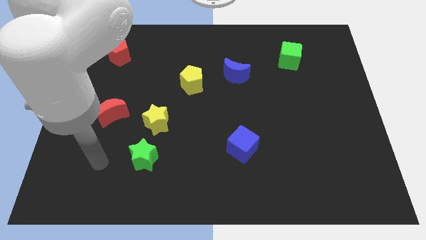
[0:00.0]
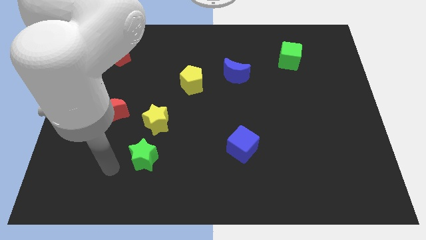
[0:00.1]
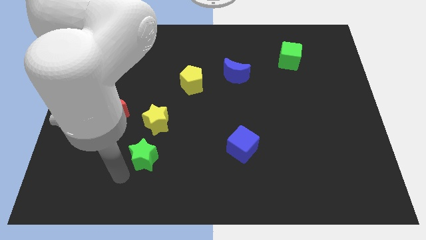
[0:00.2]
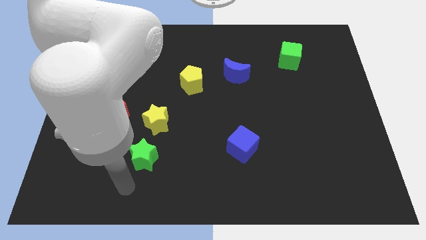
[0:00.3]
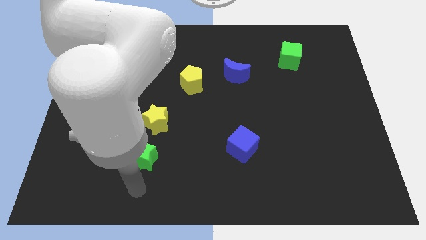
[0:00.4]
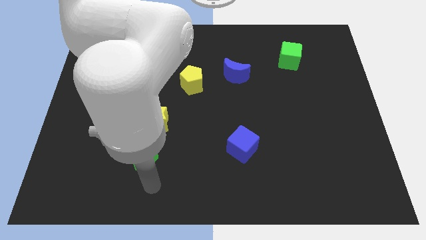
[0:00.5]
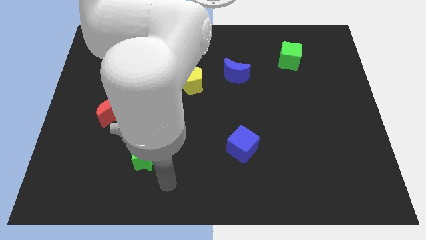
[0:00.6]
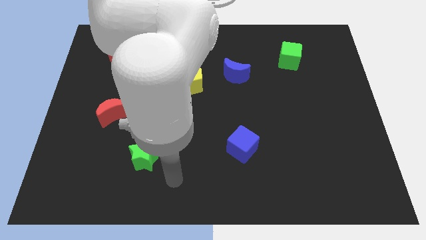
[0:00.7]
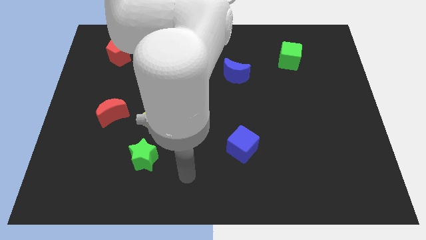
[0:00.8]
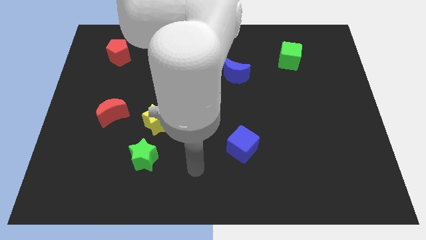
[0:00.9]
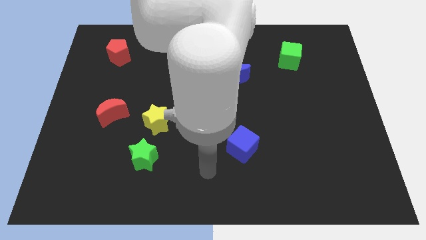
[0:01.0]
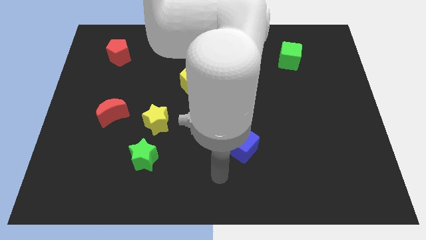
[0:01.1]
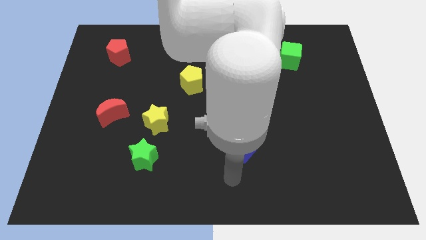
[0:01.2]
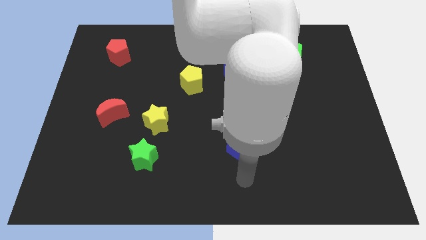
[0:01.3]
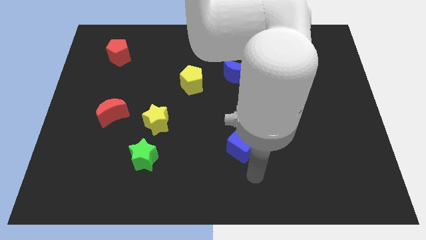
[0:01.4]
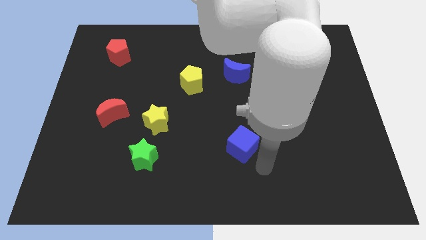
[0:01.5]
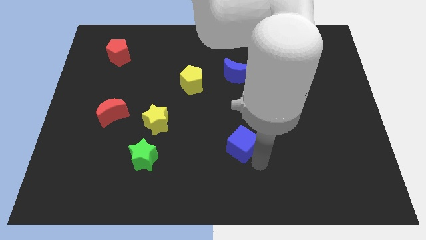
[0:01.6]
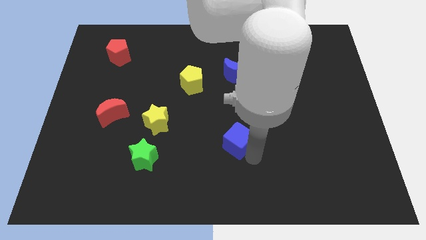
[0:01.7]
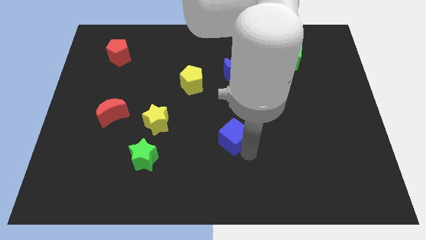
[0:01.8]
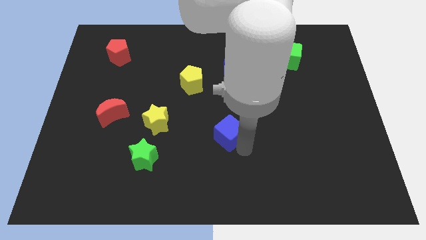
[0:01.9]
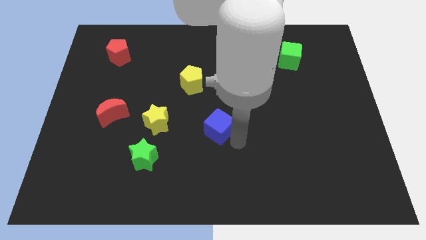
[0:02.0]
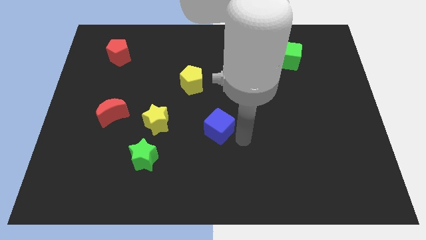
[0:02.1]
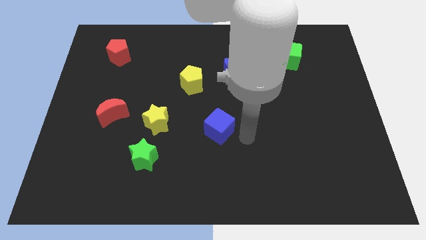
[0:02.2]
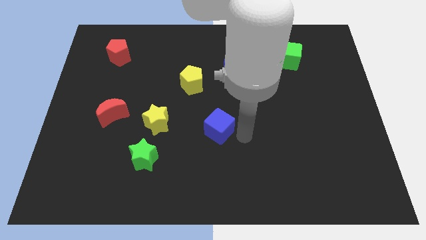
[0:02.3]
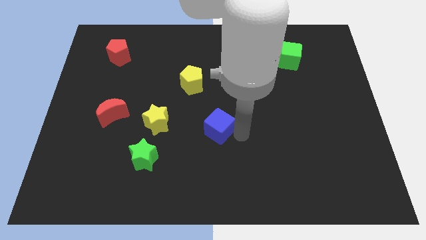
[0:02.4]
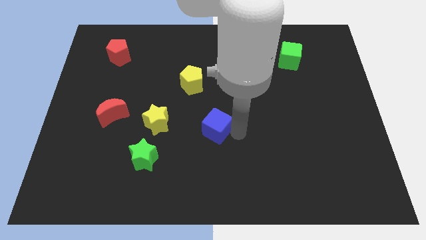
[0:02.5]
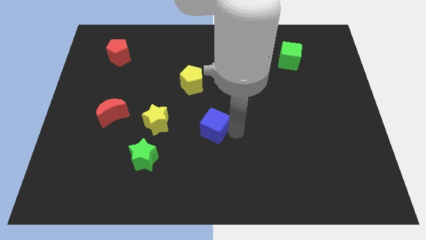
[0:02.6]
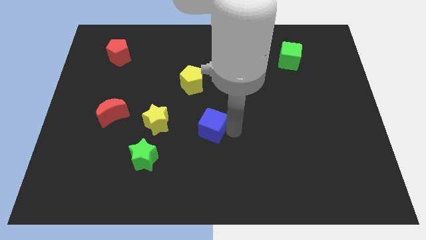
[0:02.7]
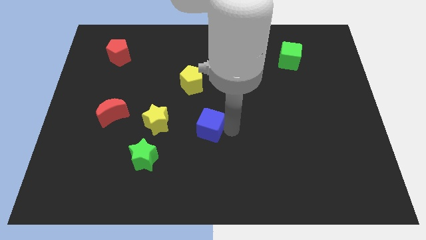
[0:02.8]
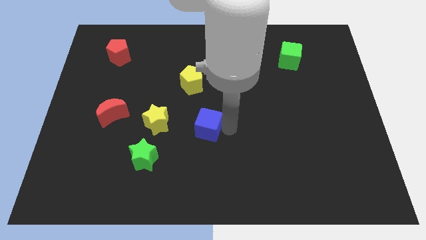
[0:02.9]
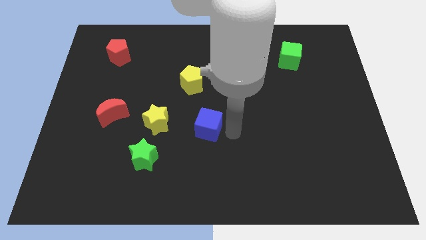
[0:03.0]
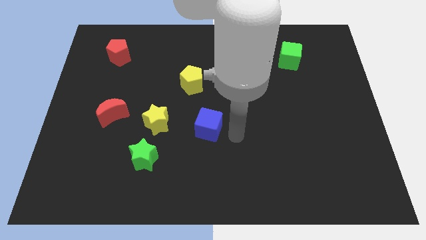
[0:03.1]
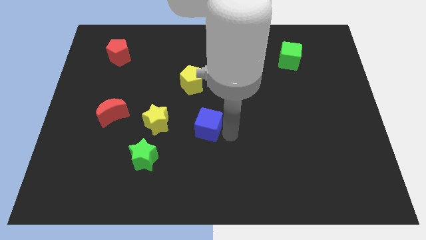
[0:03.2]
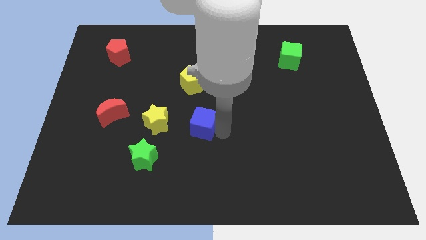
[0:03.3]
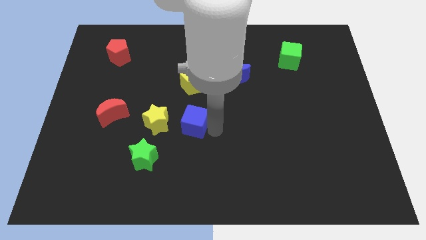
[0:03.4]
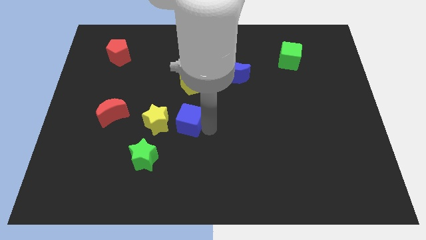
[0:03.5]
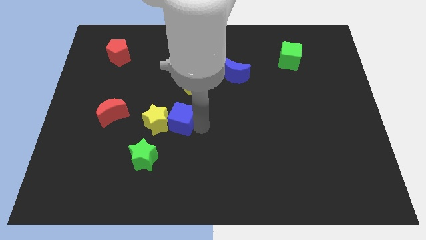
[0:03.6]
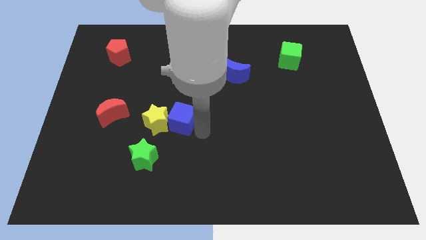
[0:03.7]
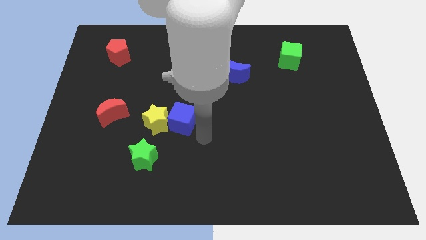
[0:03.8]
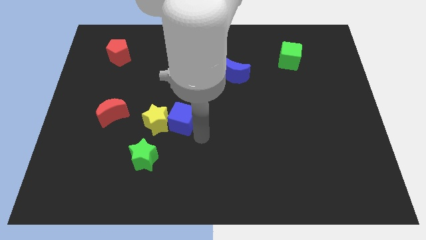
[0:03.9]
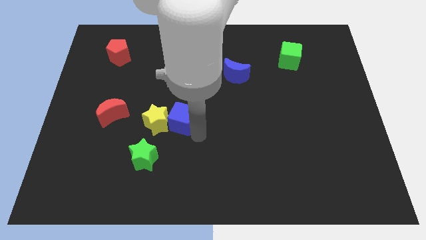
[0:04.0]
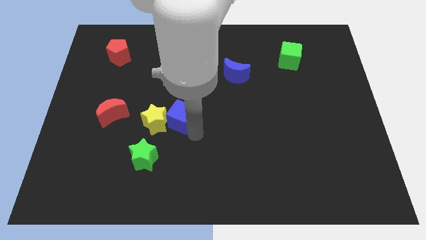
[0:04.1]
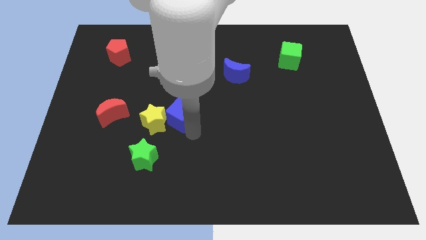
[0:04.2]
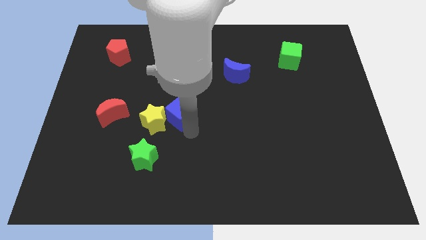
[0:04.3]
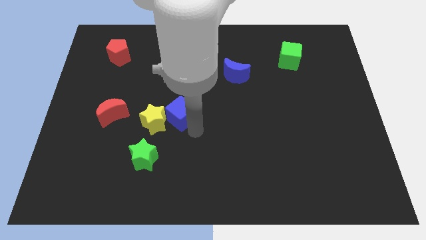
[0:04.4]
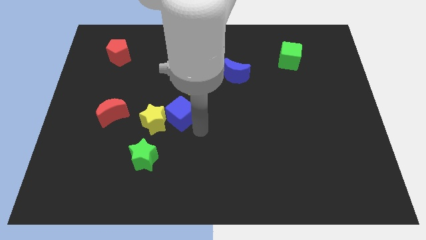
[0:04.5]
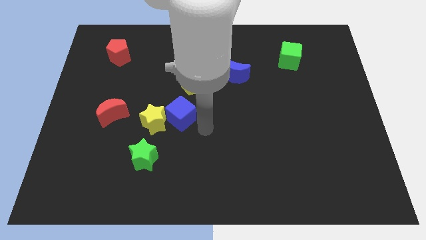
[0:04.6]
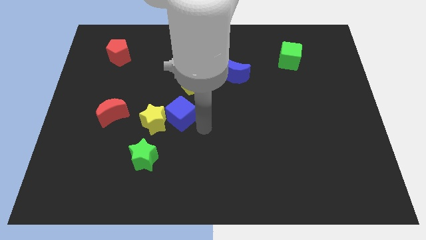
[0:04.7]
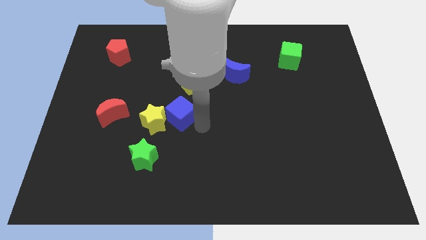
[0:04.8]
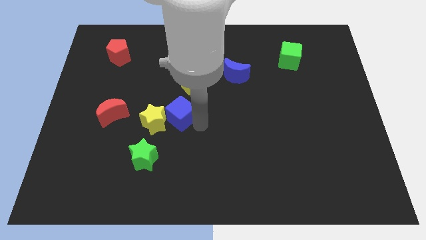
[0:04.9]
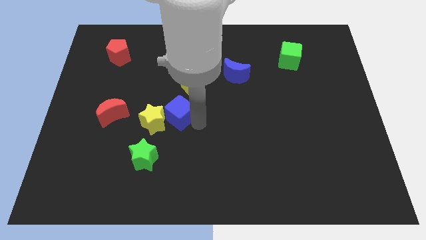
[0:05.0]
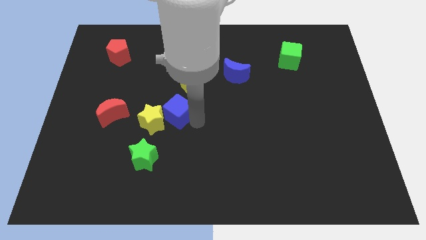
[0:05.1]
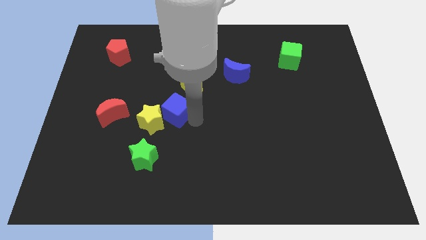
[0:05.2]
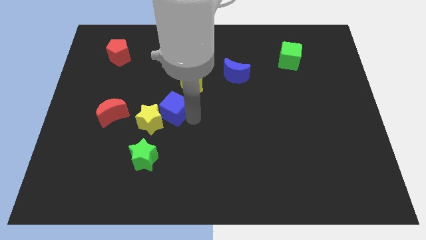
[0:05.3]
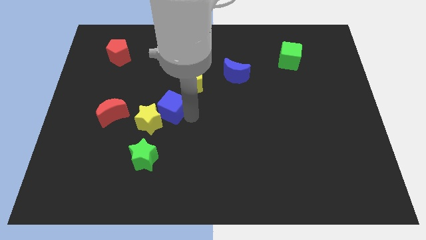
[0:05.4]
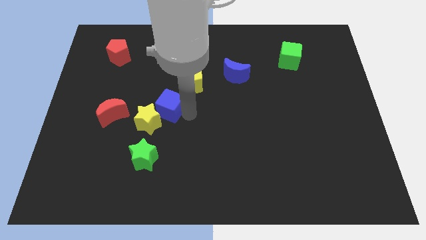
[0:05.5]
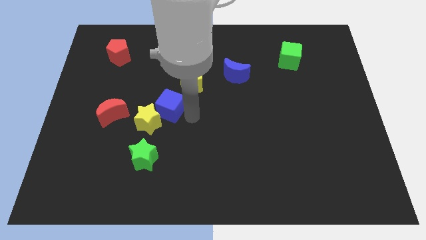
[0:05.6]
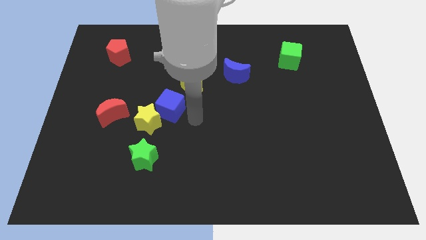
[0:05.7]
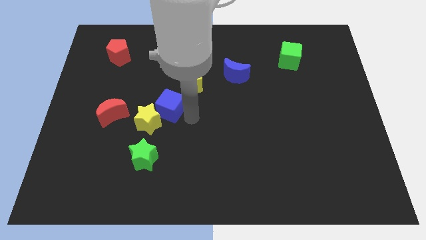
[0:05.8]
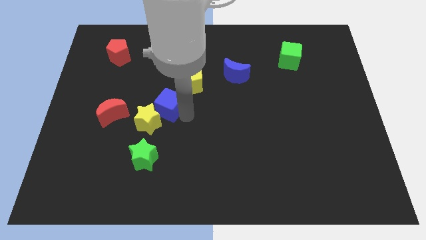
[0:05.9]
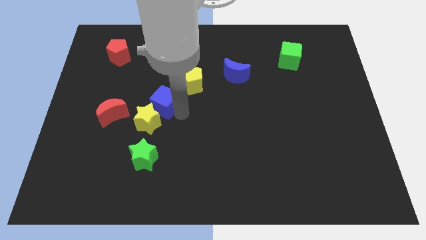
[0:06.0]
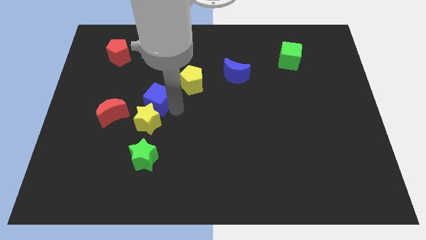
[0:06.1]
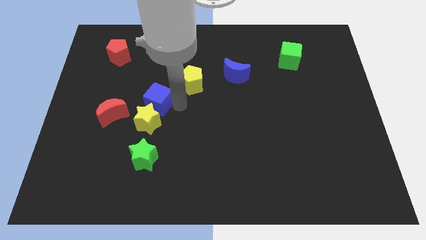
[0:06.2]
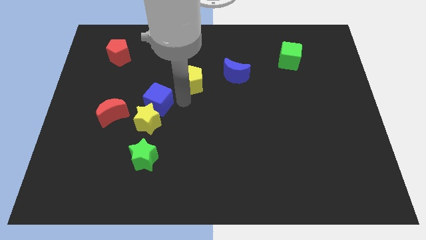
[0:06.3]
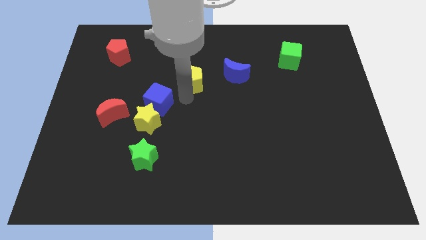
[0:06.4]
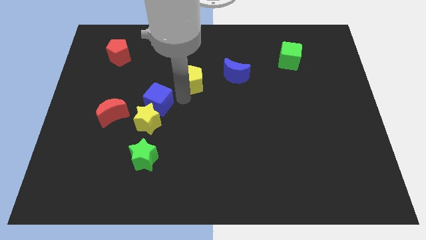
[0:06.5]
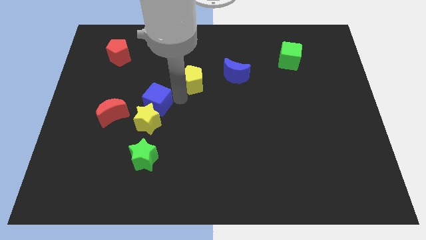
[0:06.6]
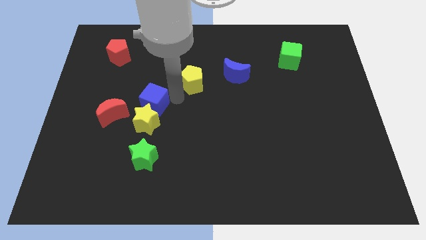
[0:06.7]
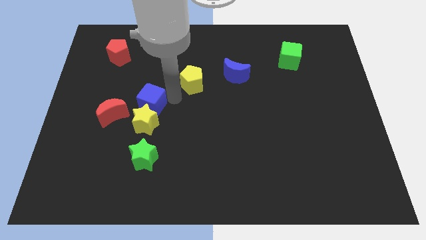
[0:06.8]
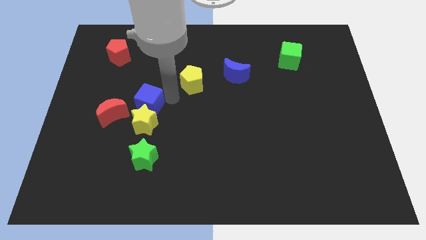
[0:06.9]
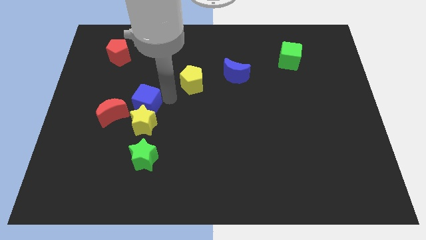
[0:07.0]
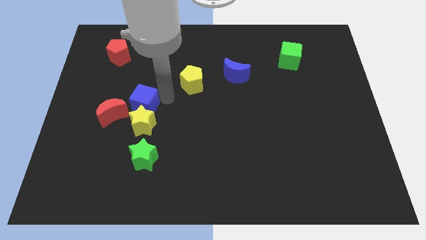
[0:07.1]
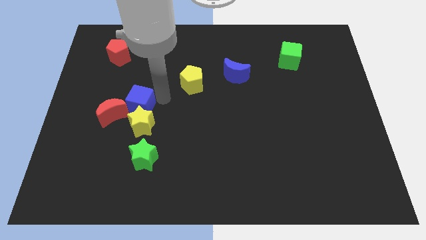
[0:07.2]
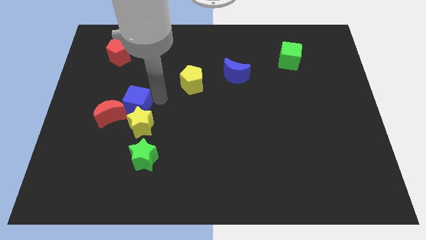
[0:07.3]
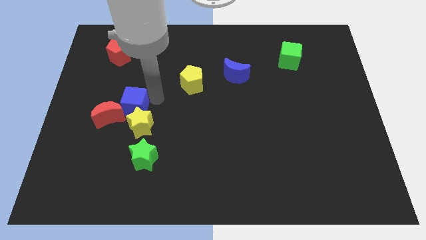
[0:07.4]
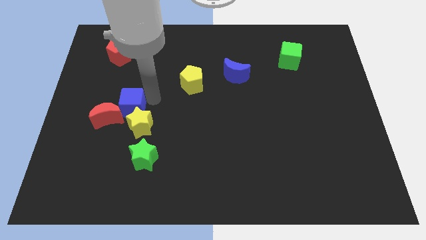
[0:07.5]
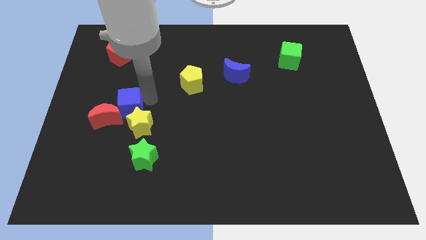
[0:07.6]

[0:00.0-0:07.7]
move the blue cube next to the red moon

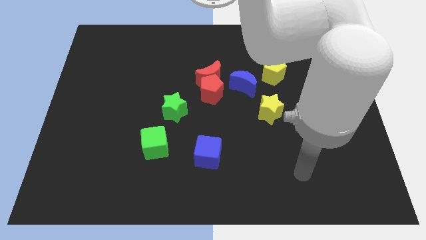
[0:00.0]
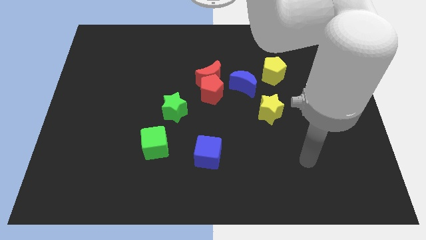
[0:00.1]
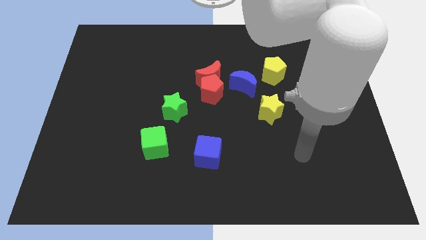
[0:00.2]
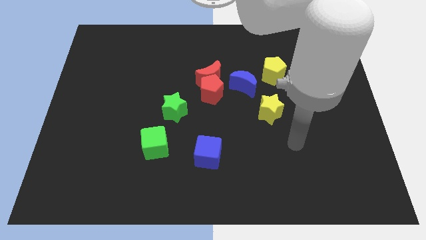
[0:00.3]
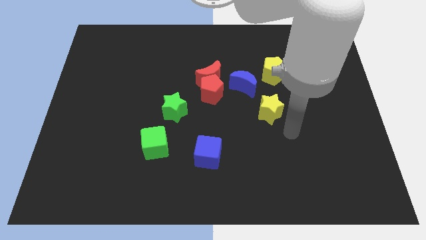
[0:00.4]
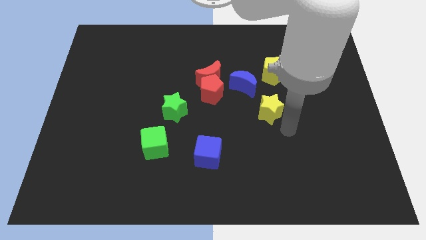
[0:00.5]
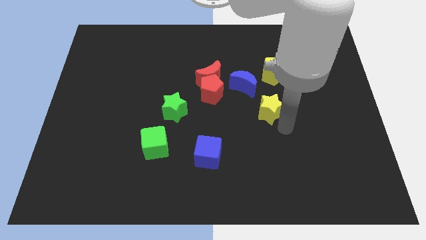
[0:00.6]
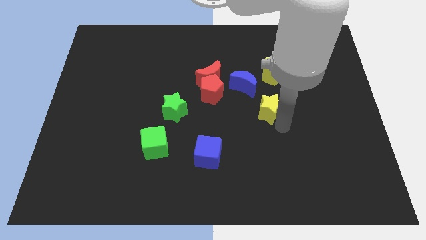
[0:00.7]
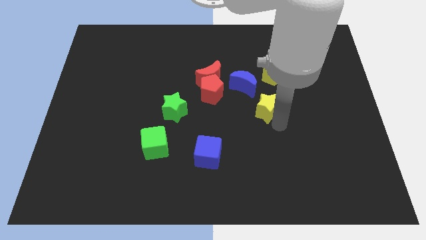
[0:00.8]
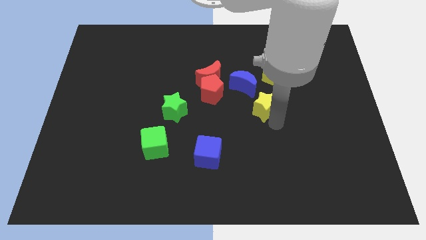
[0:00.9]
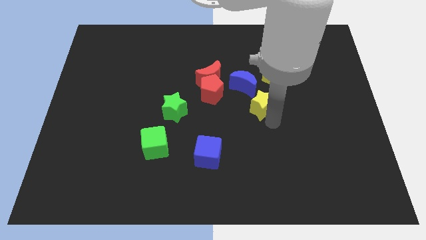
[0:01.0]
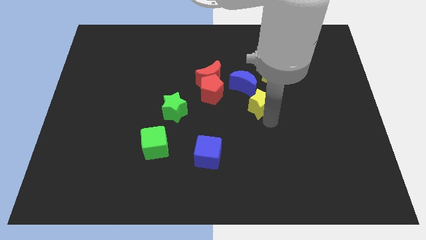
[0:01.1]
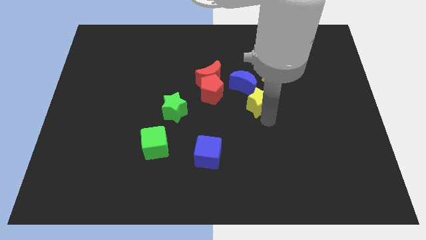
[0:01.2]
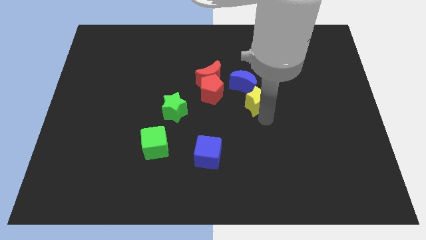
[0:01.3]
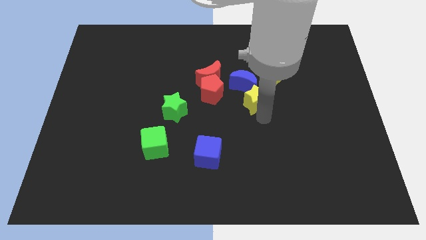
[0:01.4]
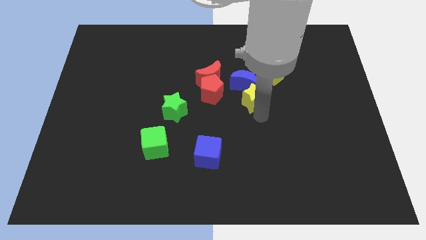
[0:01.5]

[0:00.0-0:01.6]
slide the yellow star close to the blue moon
